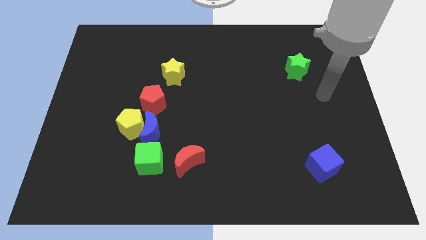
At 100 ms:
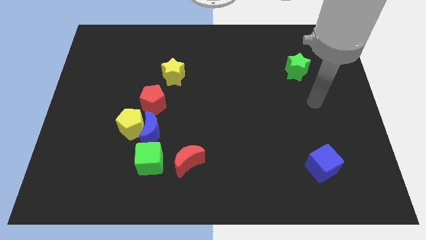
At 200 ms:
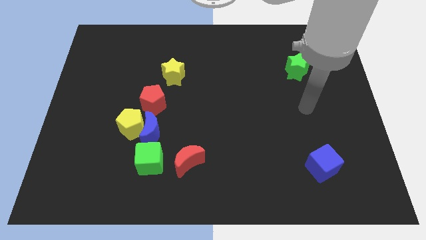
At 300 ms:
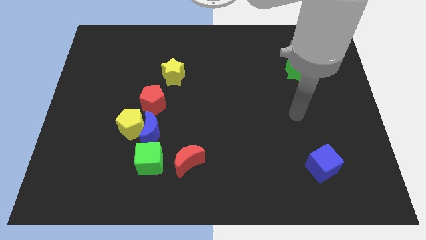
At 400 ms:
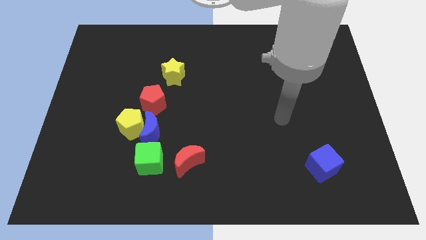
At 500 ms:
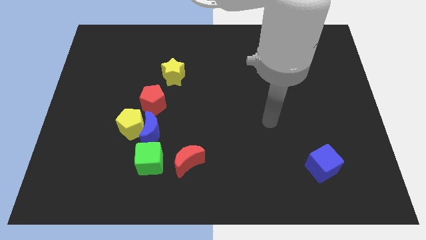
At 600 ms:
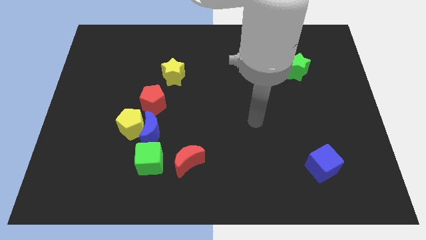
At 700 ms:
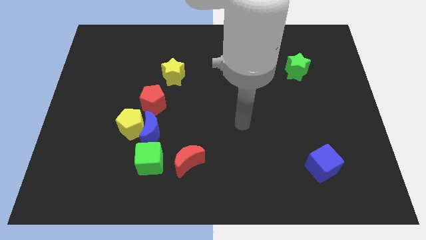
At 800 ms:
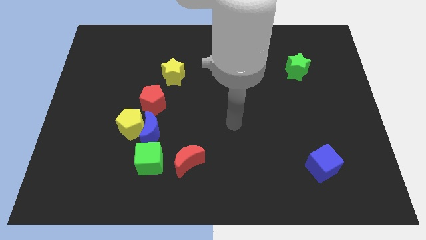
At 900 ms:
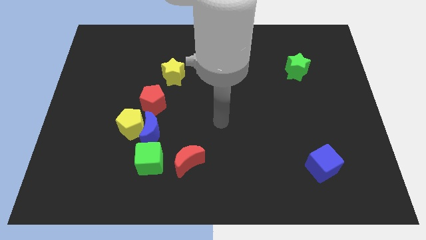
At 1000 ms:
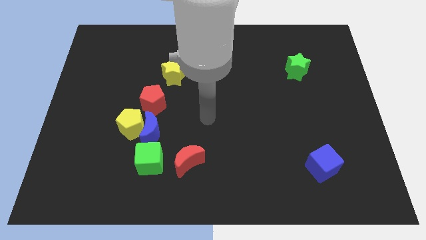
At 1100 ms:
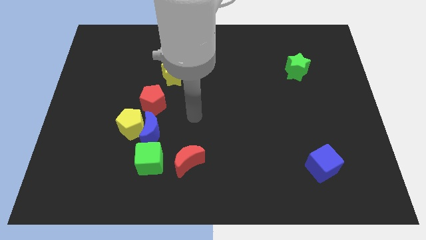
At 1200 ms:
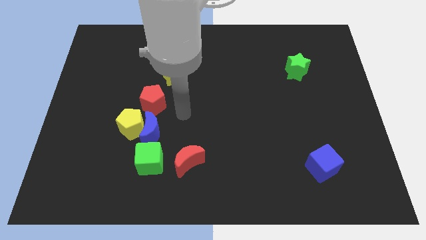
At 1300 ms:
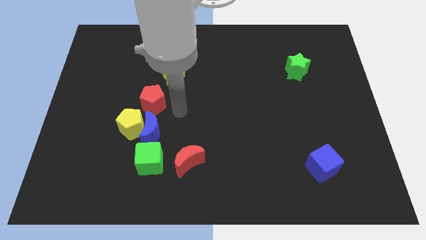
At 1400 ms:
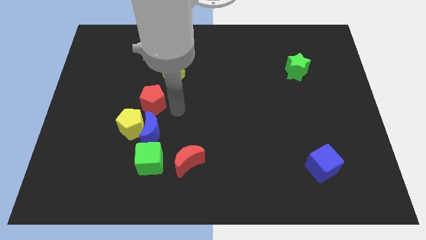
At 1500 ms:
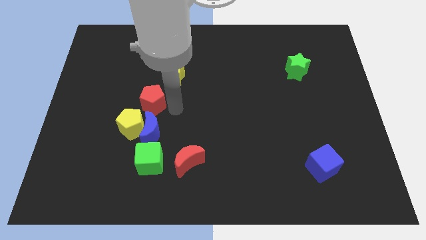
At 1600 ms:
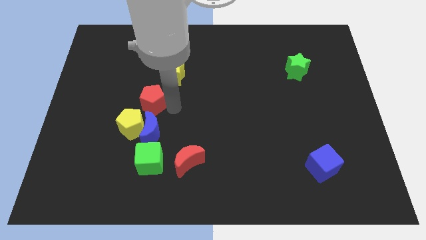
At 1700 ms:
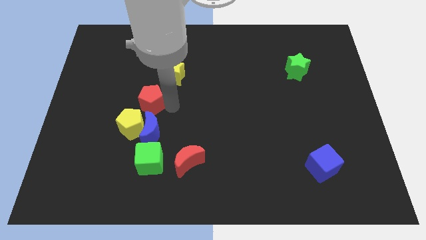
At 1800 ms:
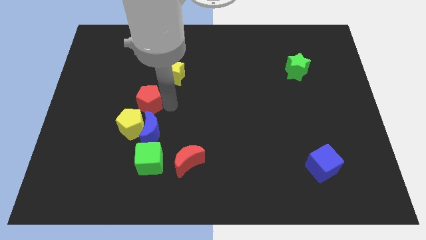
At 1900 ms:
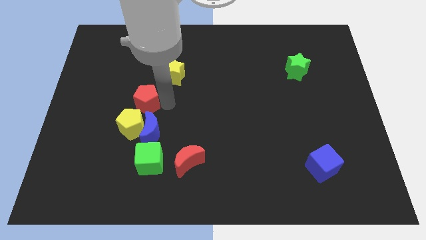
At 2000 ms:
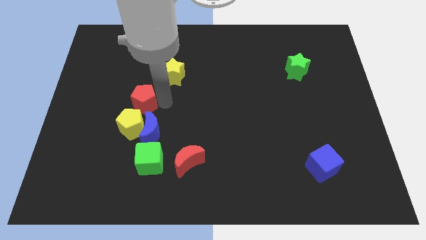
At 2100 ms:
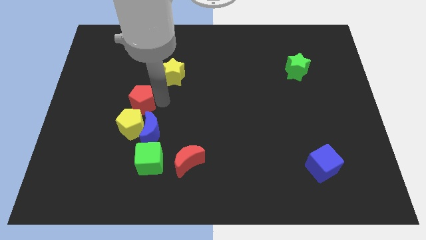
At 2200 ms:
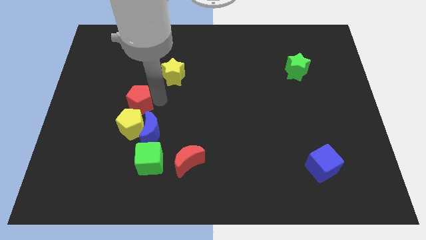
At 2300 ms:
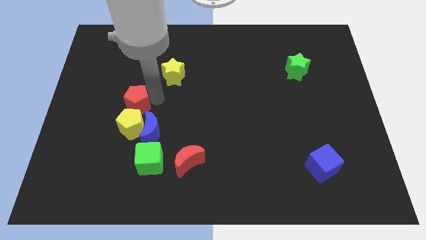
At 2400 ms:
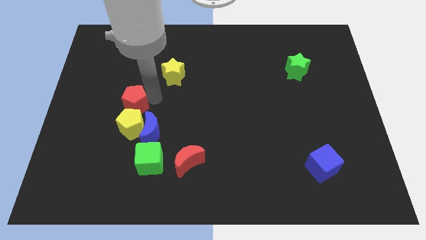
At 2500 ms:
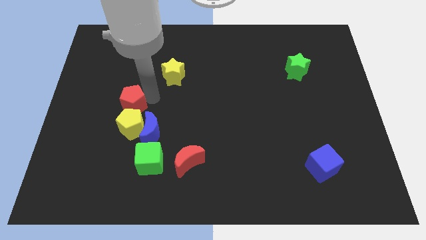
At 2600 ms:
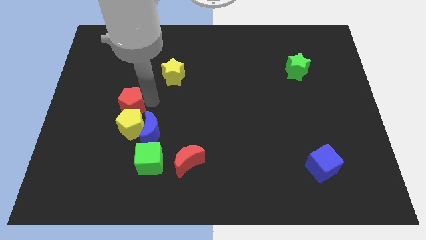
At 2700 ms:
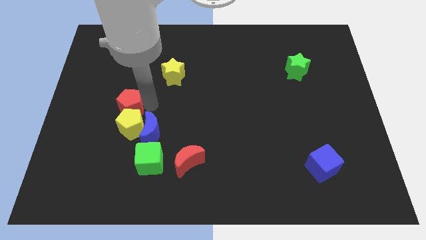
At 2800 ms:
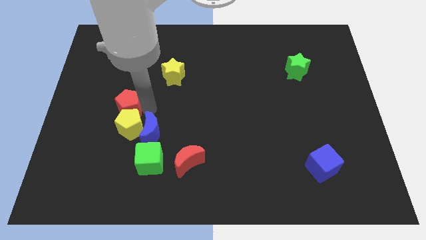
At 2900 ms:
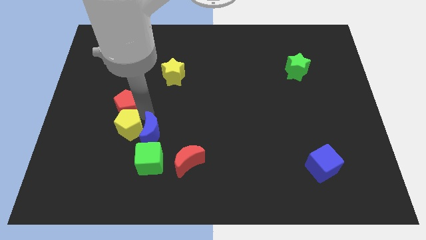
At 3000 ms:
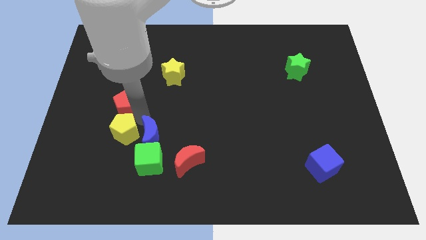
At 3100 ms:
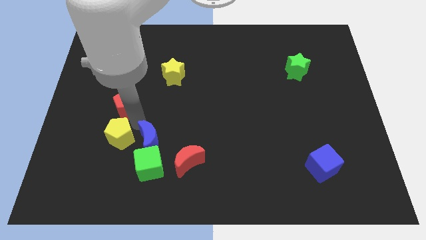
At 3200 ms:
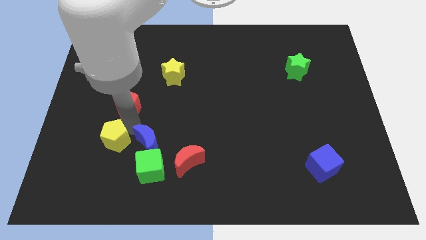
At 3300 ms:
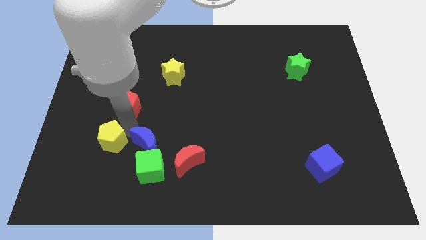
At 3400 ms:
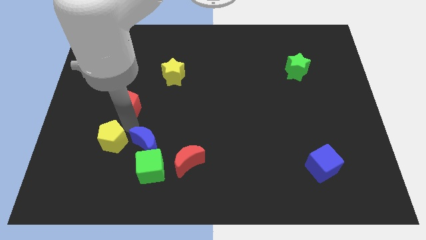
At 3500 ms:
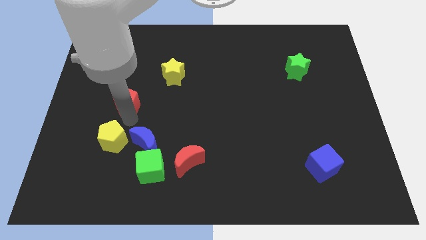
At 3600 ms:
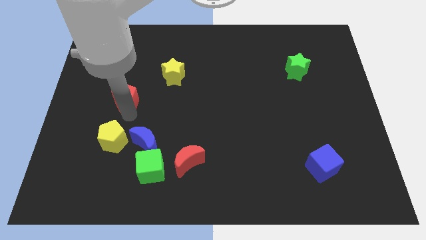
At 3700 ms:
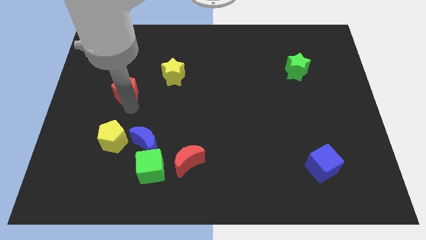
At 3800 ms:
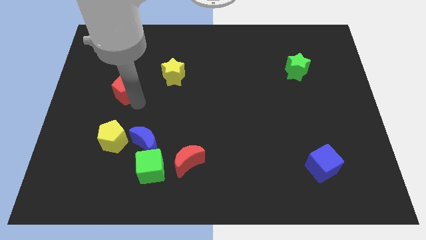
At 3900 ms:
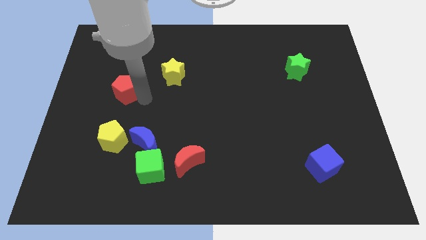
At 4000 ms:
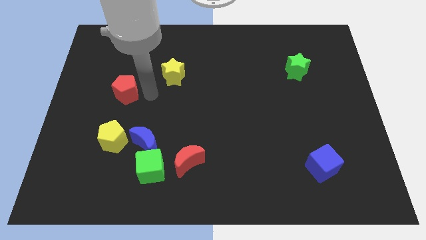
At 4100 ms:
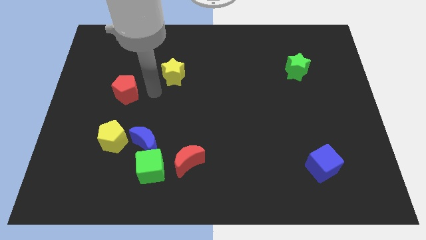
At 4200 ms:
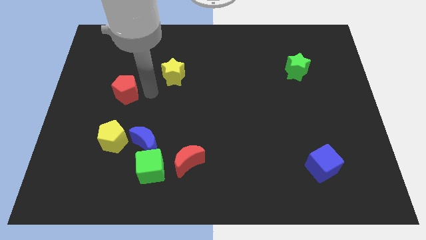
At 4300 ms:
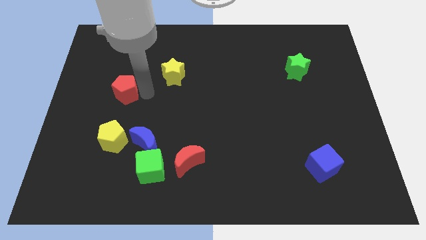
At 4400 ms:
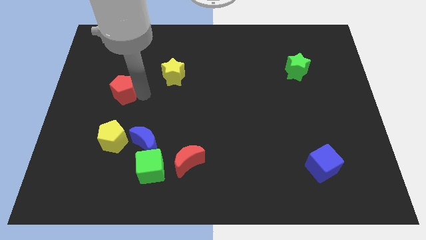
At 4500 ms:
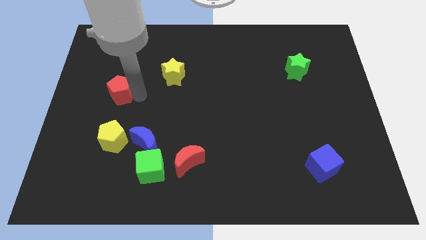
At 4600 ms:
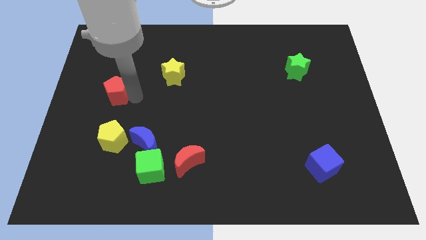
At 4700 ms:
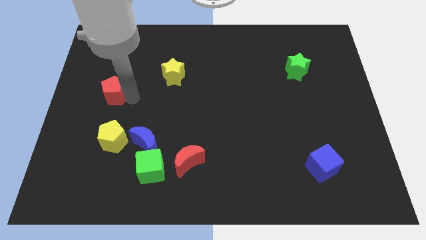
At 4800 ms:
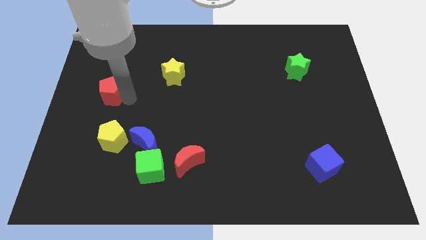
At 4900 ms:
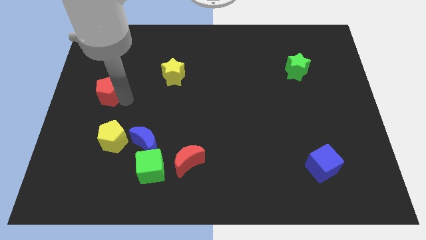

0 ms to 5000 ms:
move the red pentagon to the left side of the board

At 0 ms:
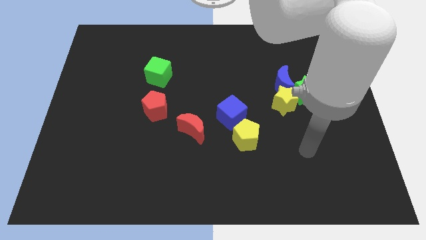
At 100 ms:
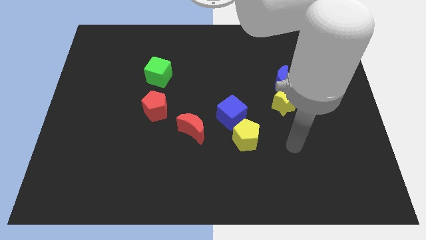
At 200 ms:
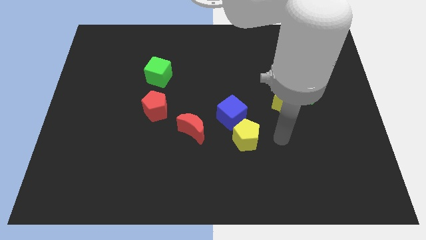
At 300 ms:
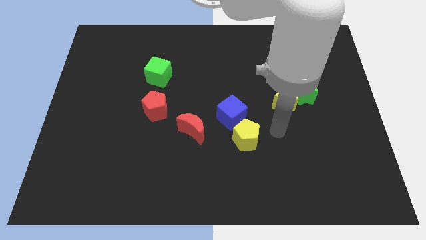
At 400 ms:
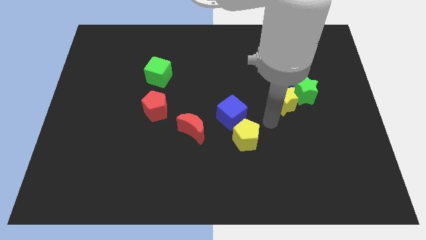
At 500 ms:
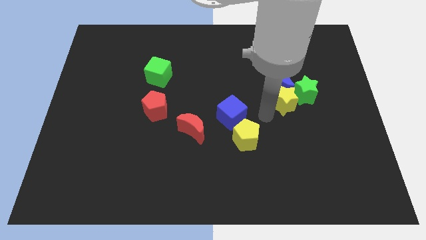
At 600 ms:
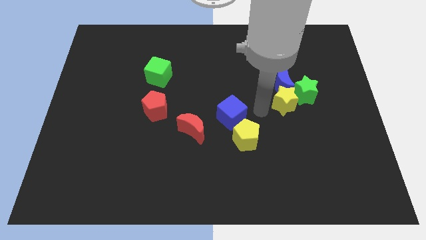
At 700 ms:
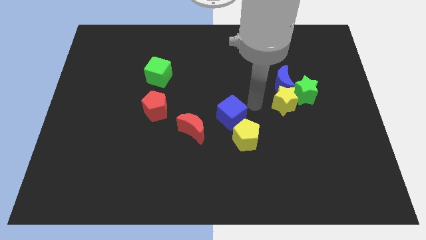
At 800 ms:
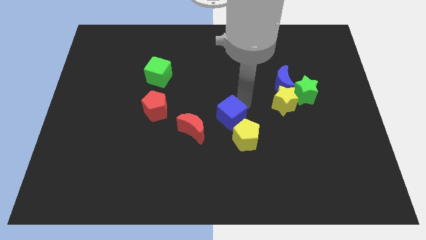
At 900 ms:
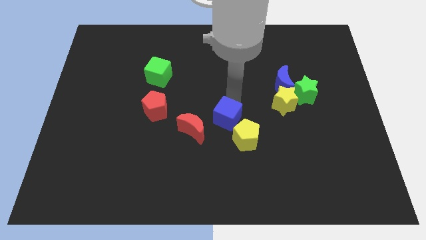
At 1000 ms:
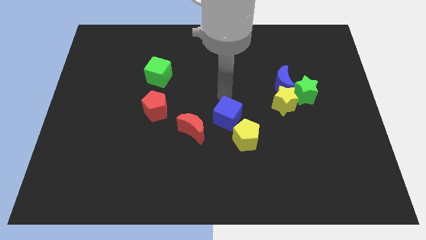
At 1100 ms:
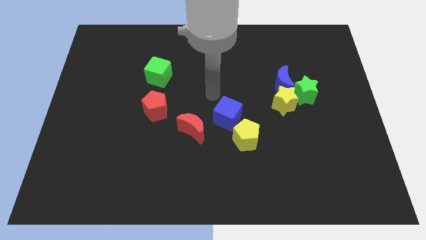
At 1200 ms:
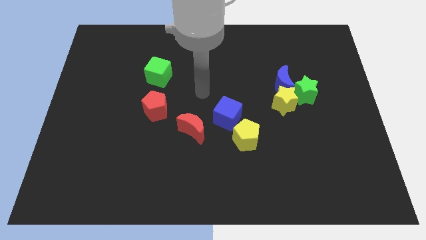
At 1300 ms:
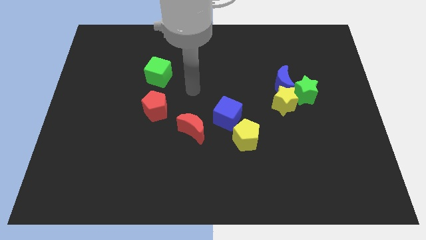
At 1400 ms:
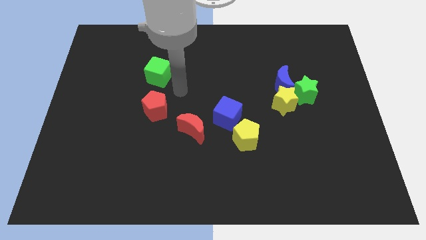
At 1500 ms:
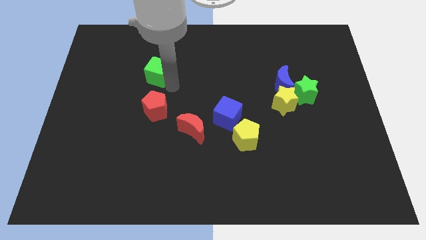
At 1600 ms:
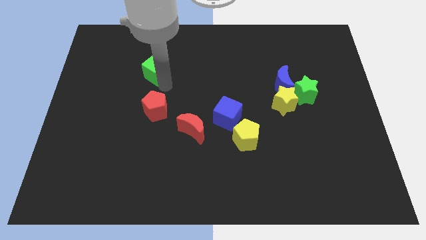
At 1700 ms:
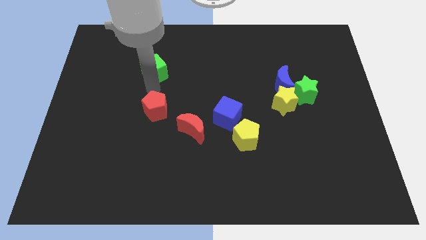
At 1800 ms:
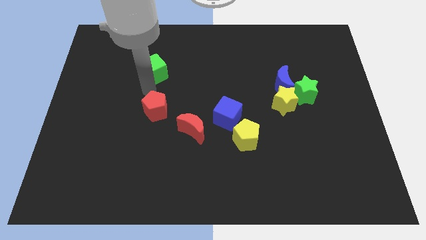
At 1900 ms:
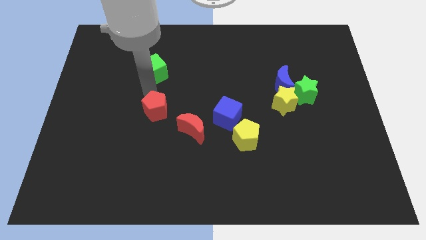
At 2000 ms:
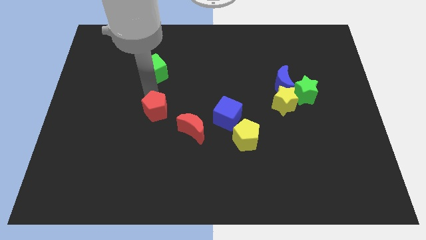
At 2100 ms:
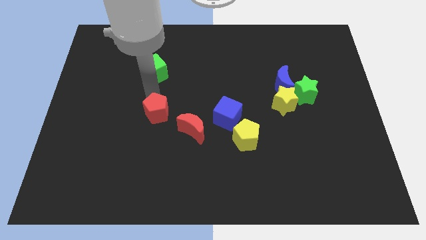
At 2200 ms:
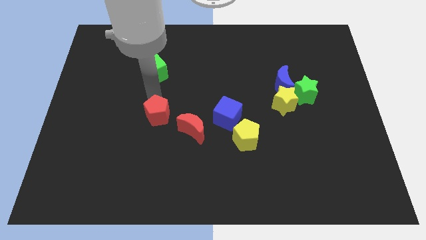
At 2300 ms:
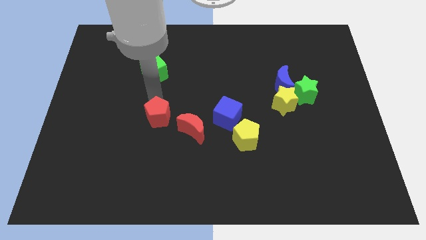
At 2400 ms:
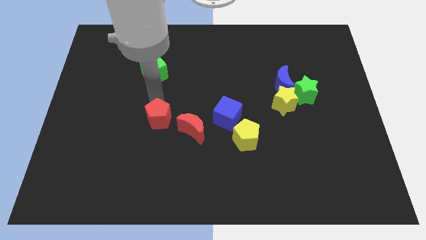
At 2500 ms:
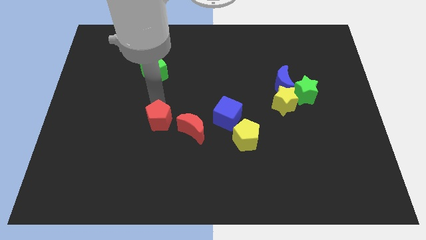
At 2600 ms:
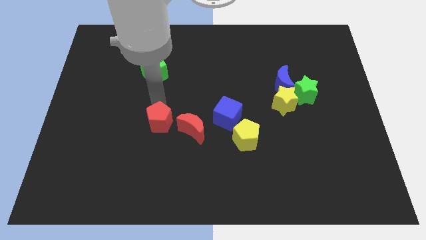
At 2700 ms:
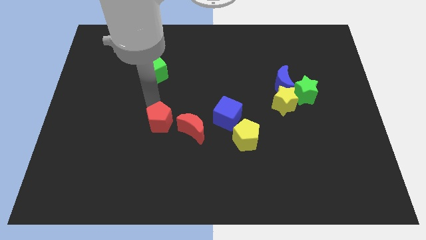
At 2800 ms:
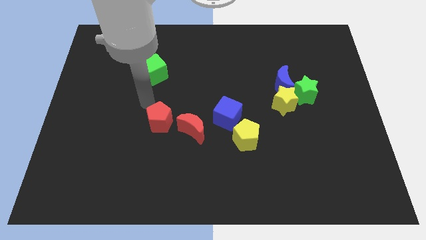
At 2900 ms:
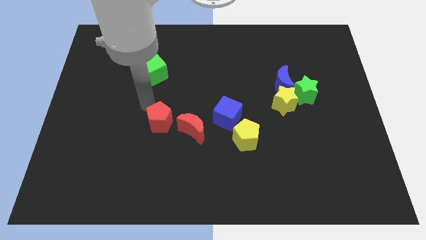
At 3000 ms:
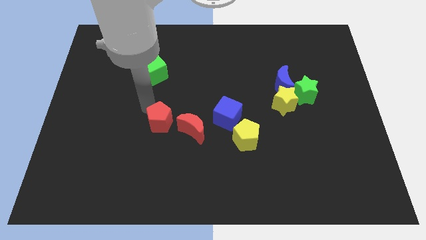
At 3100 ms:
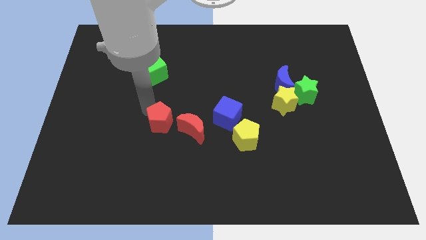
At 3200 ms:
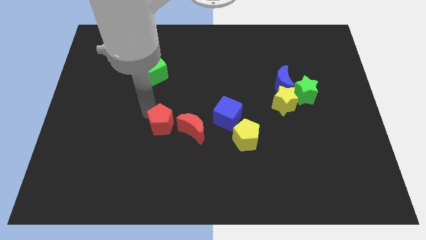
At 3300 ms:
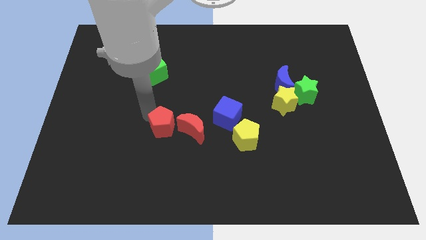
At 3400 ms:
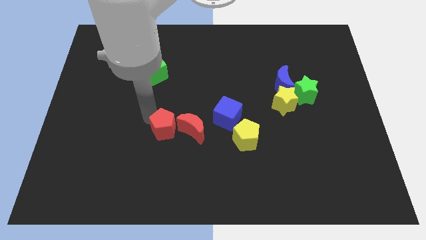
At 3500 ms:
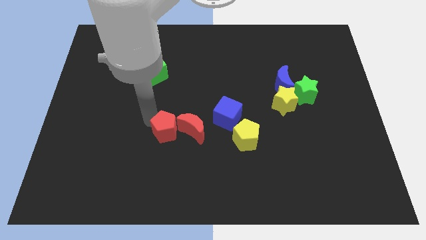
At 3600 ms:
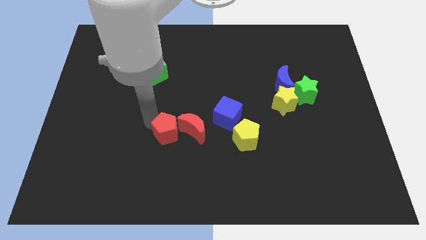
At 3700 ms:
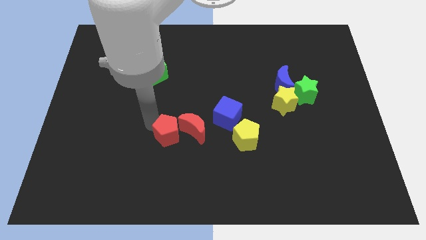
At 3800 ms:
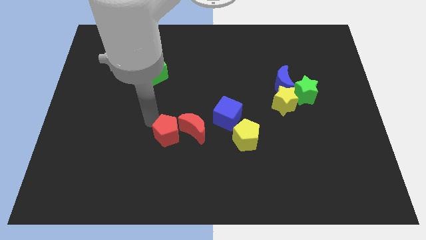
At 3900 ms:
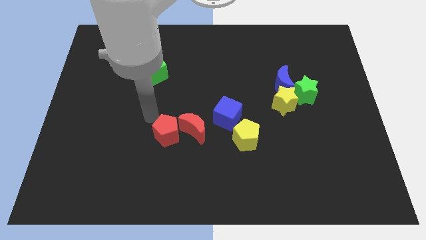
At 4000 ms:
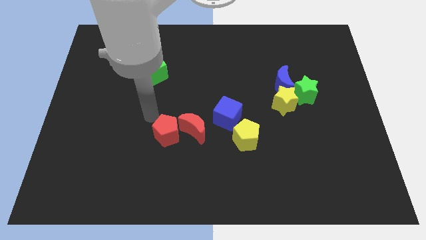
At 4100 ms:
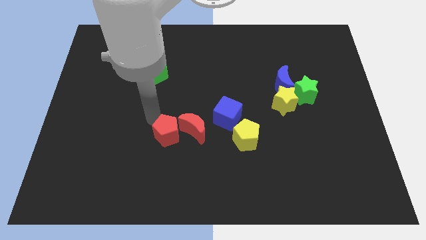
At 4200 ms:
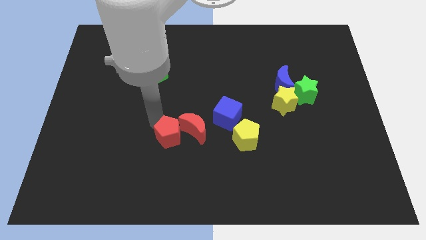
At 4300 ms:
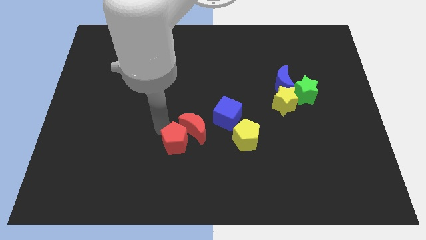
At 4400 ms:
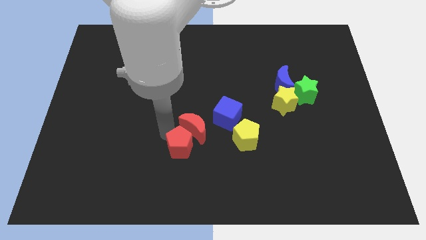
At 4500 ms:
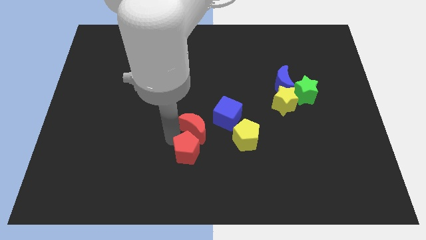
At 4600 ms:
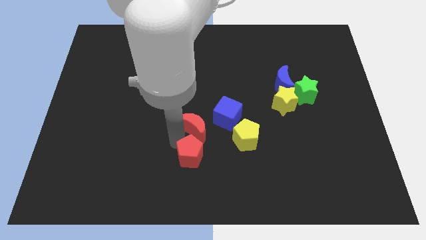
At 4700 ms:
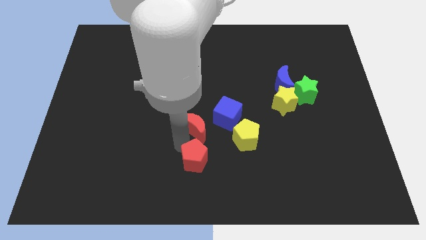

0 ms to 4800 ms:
push the red pentagon to the bottom
